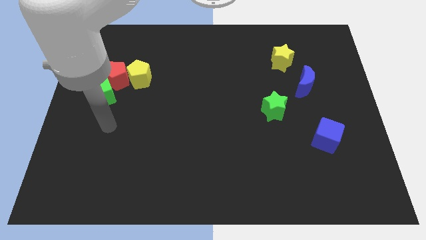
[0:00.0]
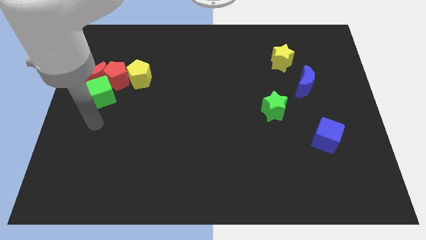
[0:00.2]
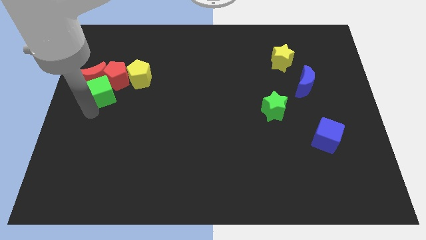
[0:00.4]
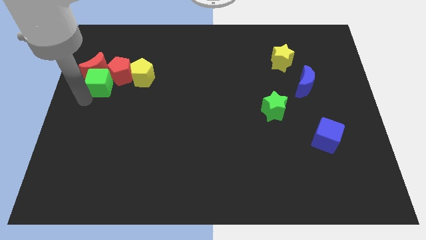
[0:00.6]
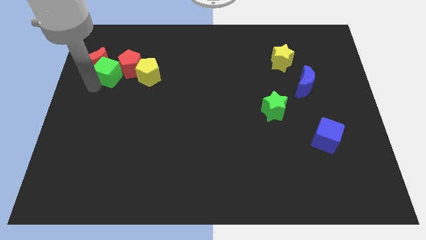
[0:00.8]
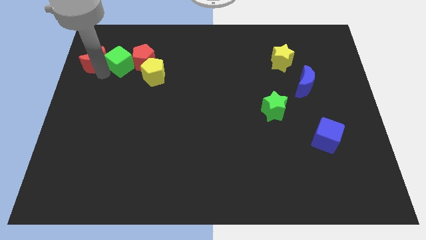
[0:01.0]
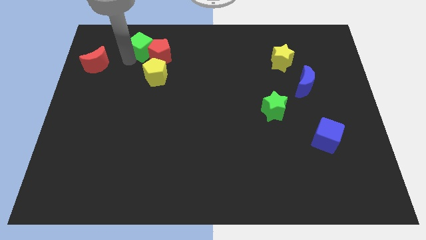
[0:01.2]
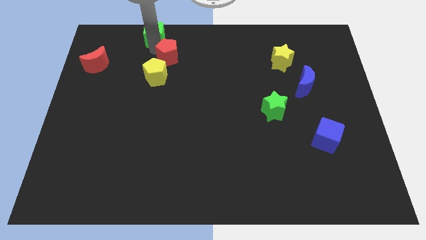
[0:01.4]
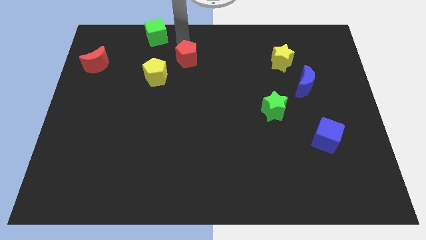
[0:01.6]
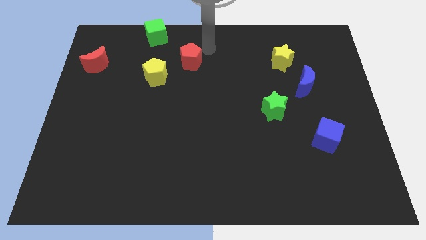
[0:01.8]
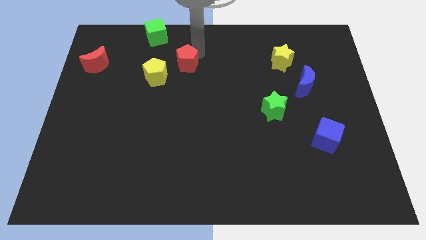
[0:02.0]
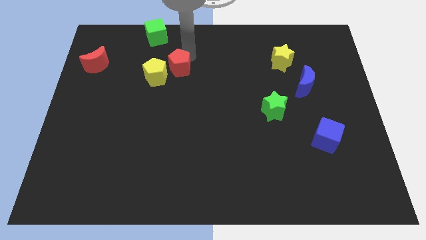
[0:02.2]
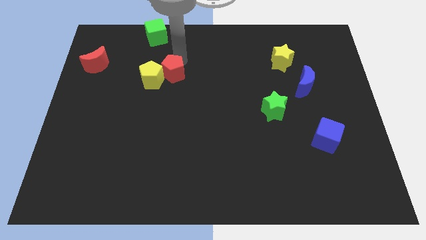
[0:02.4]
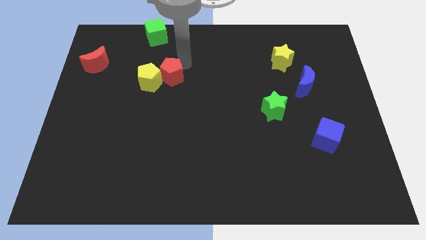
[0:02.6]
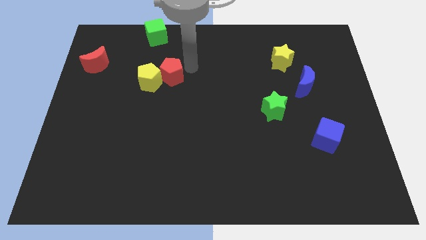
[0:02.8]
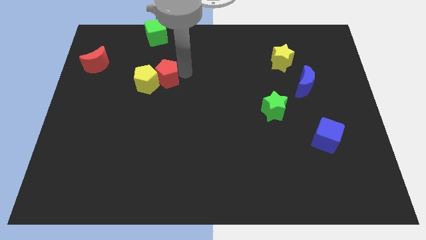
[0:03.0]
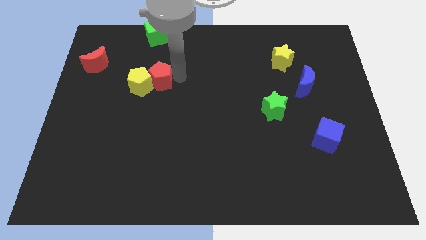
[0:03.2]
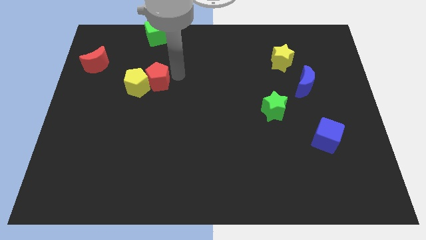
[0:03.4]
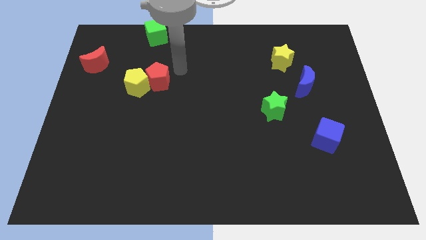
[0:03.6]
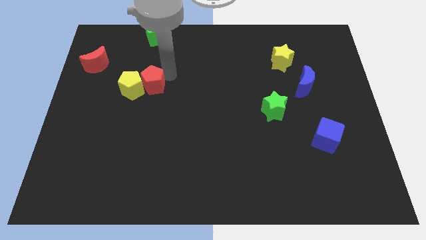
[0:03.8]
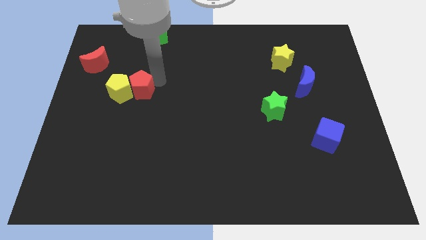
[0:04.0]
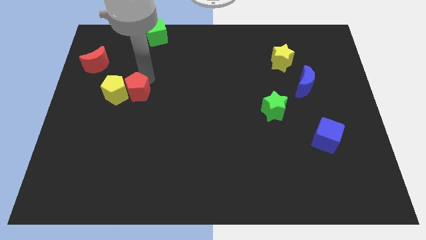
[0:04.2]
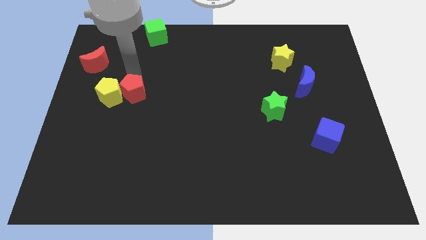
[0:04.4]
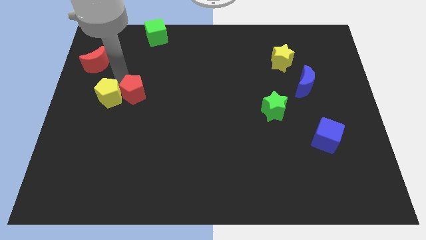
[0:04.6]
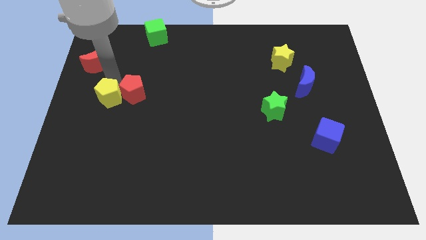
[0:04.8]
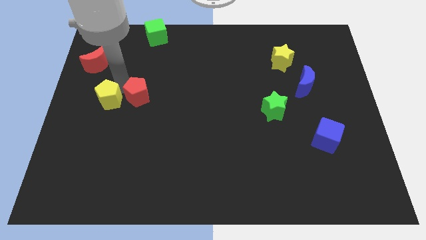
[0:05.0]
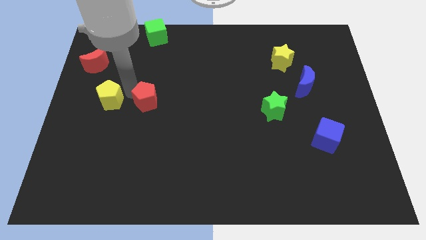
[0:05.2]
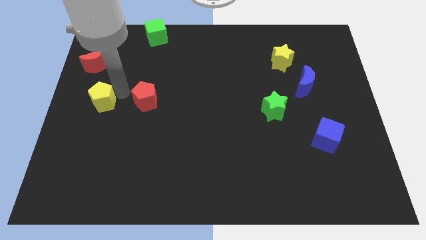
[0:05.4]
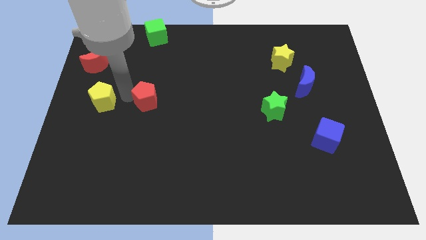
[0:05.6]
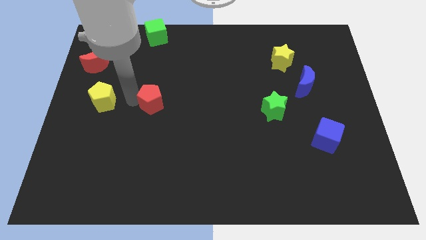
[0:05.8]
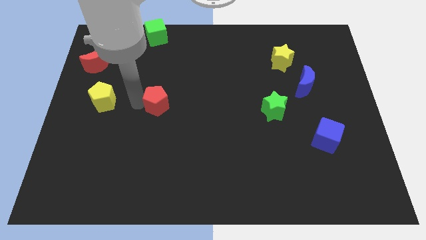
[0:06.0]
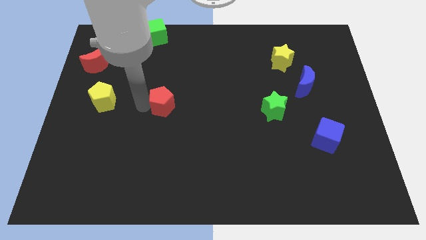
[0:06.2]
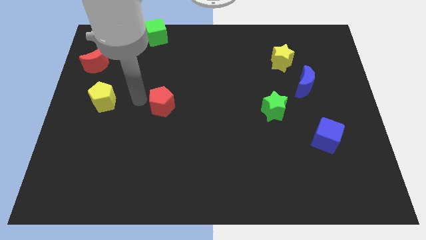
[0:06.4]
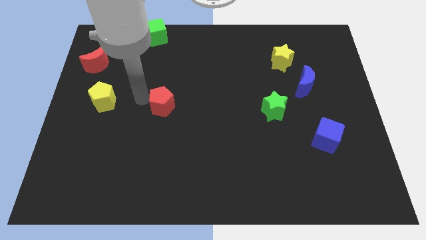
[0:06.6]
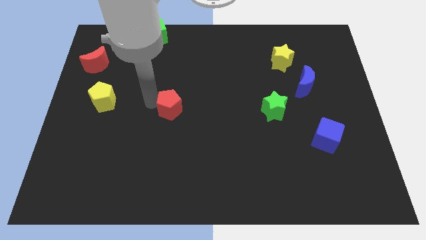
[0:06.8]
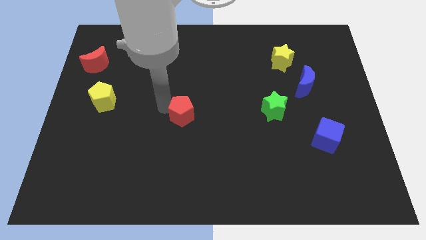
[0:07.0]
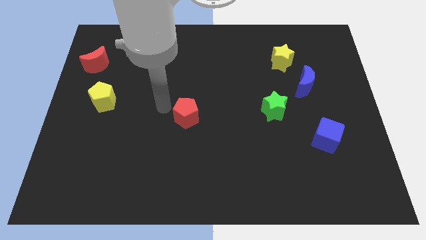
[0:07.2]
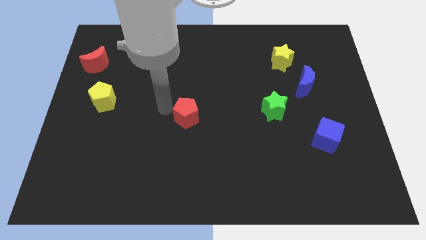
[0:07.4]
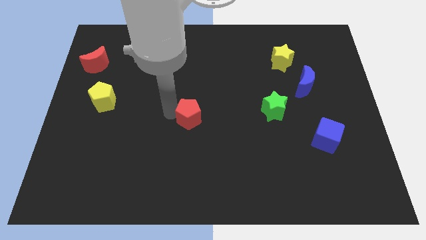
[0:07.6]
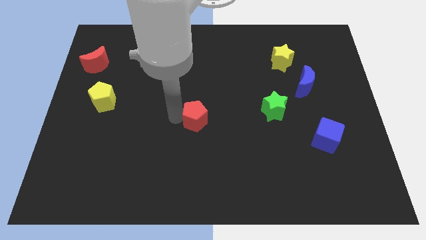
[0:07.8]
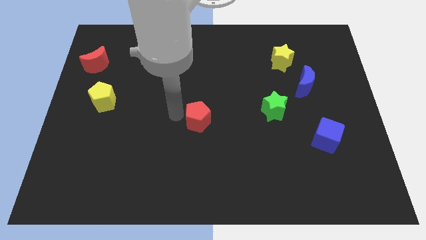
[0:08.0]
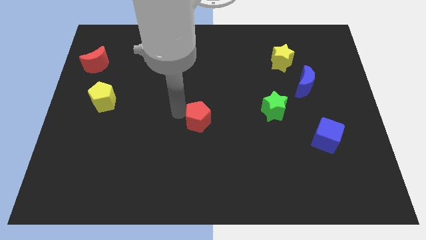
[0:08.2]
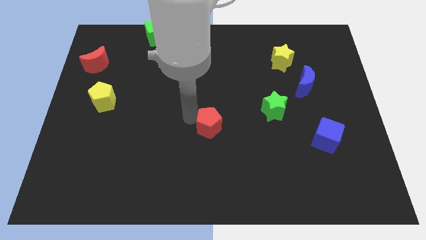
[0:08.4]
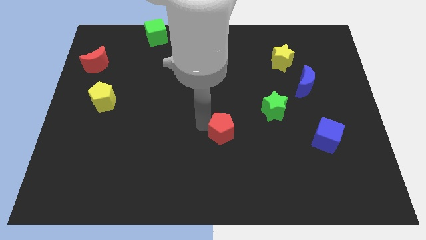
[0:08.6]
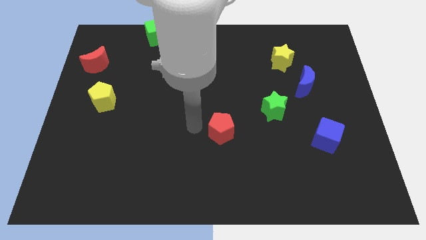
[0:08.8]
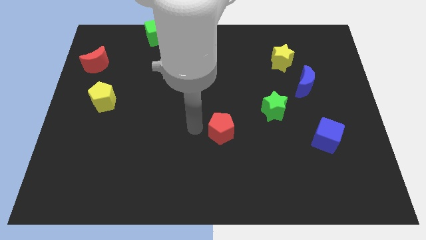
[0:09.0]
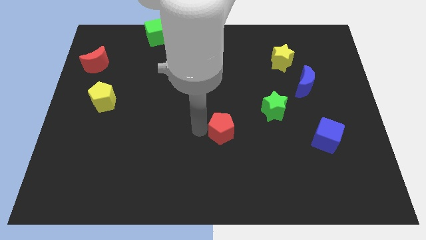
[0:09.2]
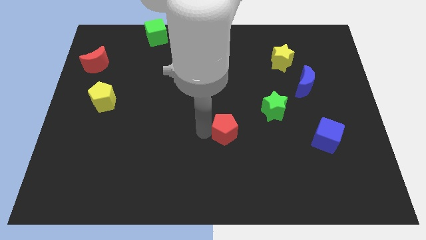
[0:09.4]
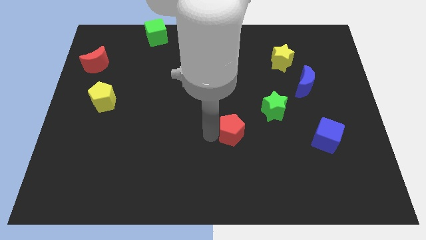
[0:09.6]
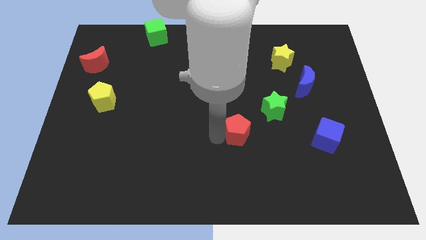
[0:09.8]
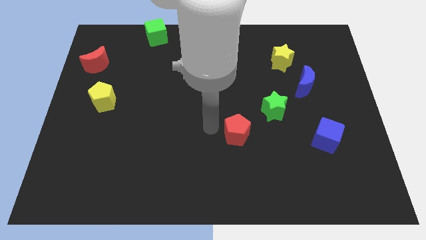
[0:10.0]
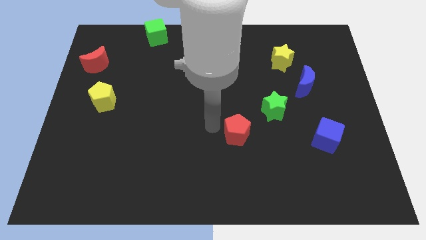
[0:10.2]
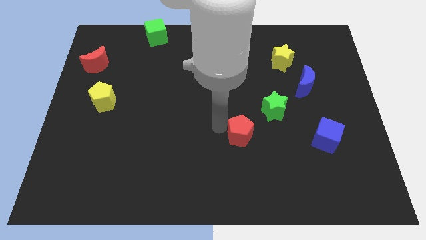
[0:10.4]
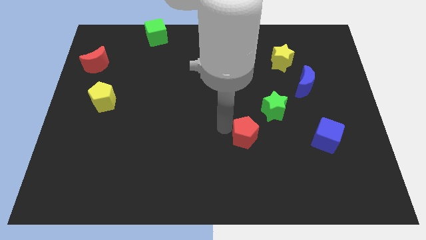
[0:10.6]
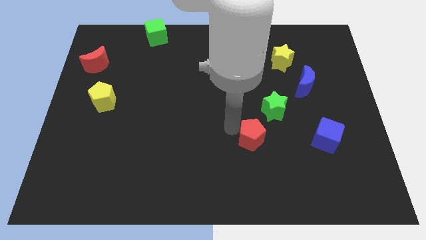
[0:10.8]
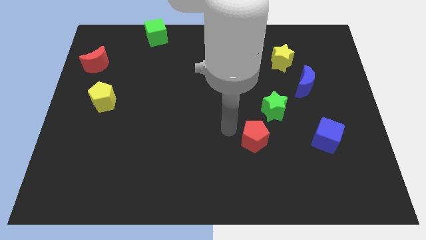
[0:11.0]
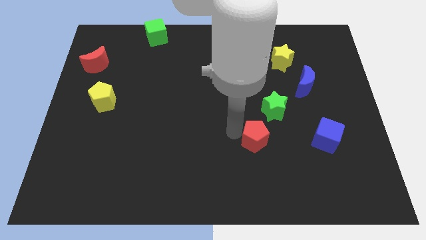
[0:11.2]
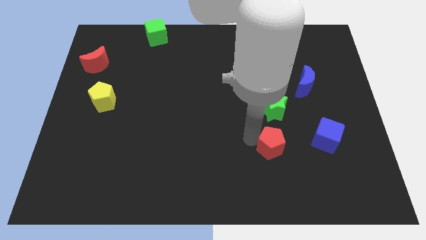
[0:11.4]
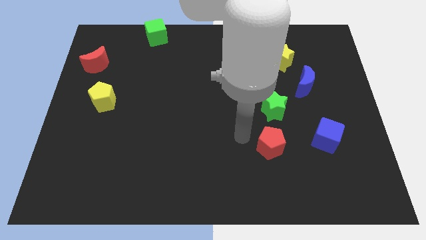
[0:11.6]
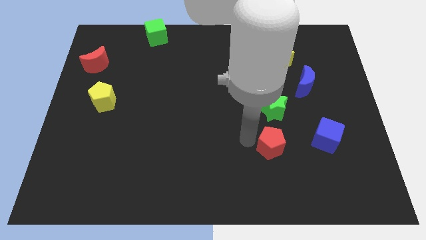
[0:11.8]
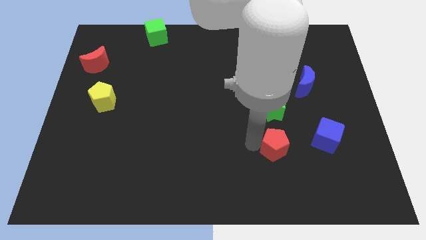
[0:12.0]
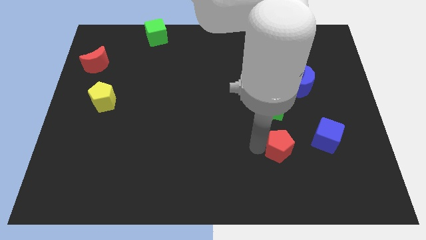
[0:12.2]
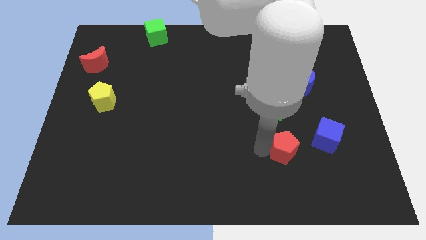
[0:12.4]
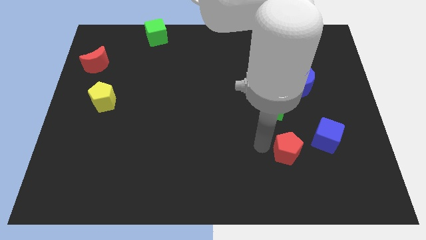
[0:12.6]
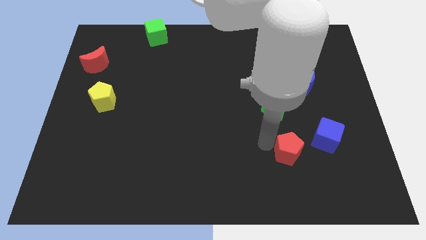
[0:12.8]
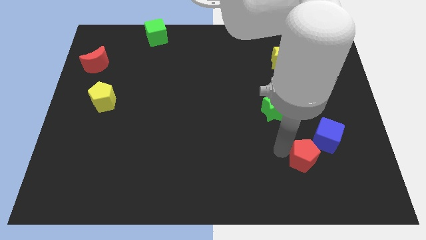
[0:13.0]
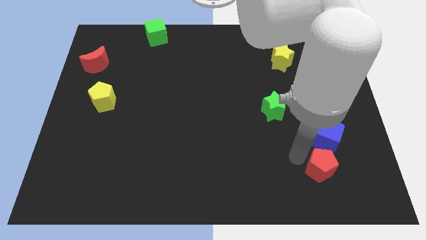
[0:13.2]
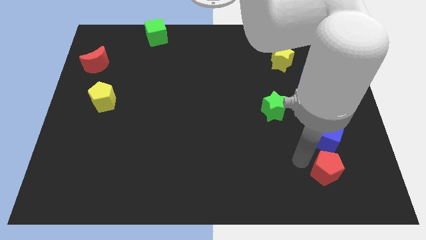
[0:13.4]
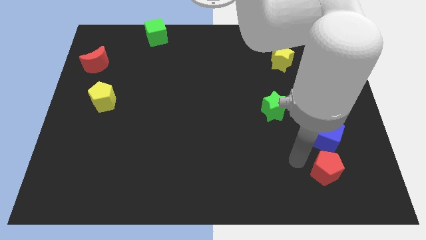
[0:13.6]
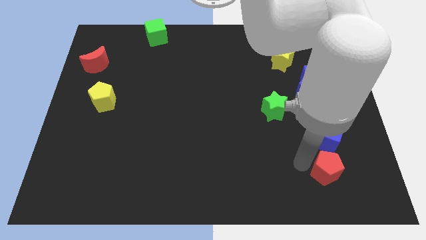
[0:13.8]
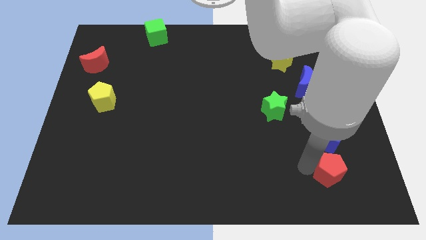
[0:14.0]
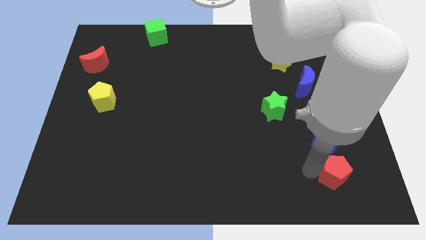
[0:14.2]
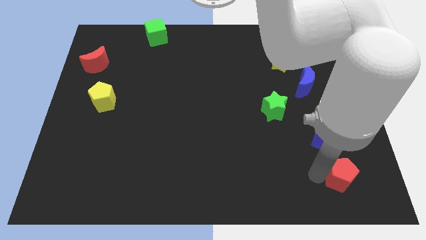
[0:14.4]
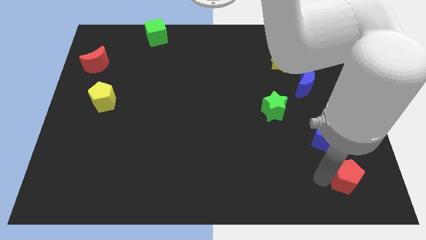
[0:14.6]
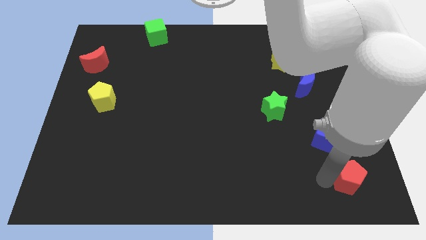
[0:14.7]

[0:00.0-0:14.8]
put the red pentagon to the bottom right corner
